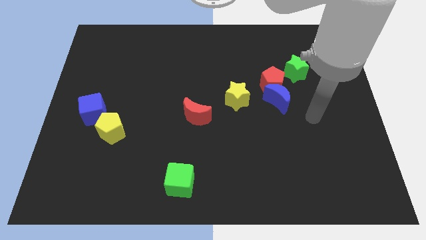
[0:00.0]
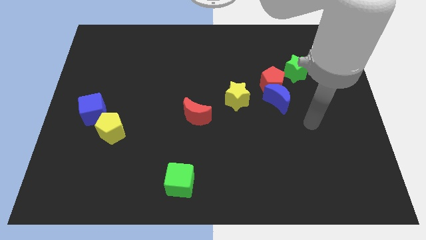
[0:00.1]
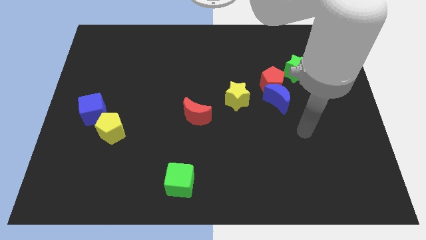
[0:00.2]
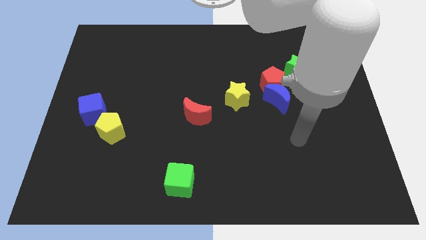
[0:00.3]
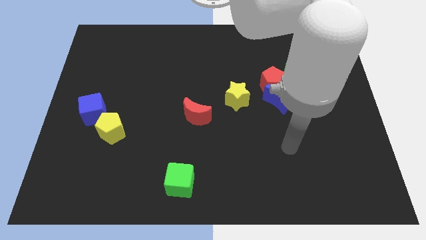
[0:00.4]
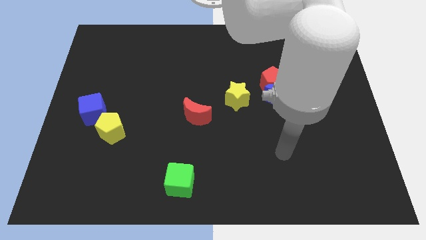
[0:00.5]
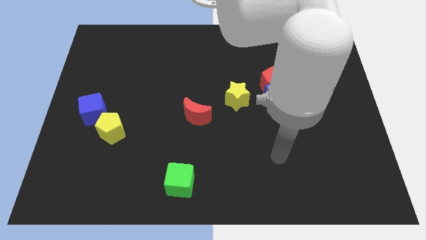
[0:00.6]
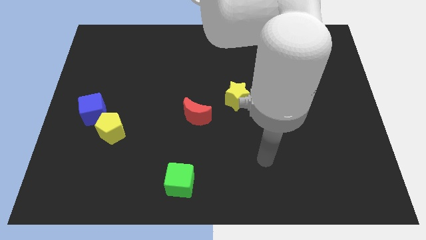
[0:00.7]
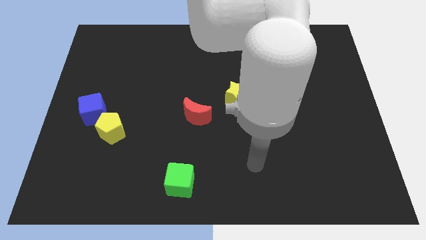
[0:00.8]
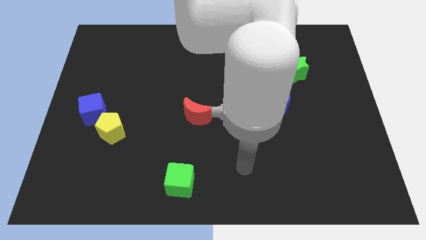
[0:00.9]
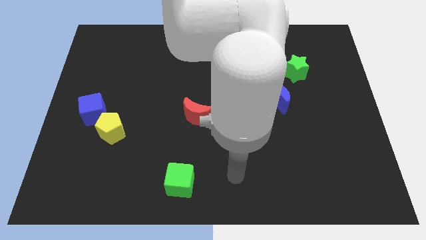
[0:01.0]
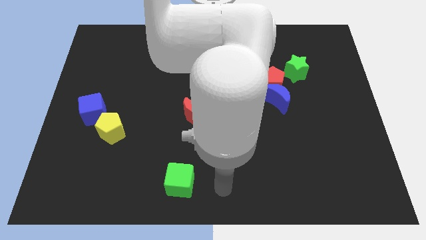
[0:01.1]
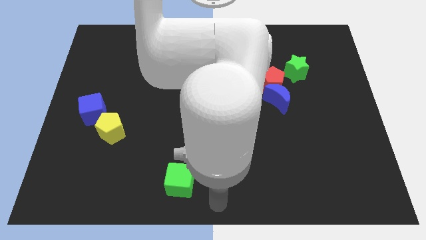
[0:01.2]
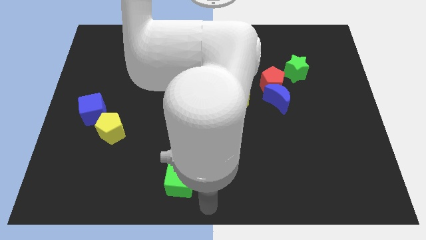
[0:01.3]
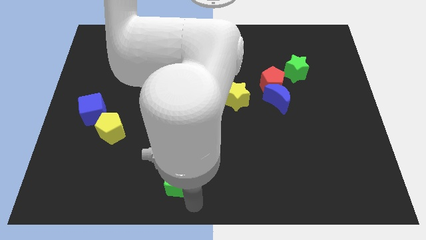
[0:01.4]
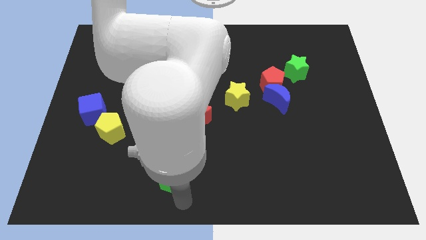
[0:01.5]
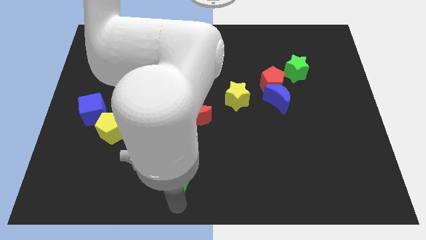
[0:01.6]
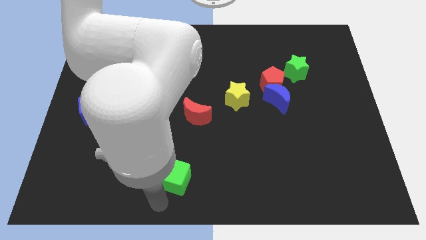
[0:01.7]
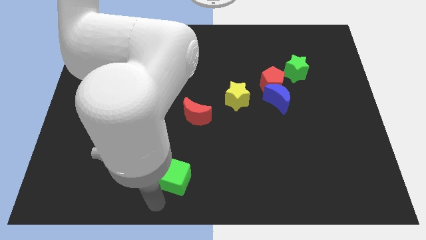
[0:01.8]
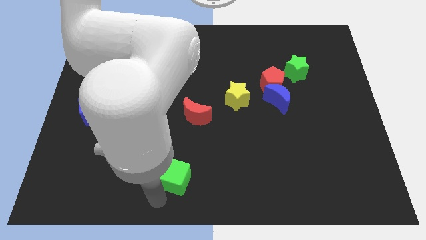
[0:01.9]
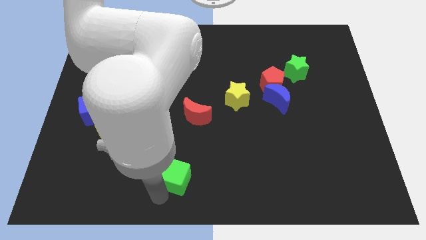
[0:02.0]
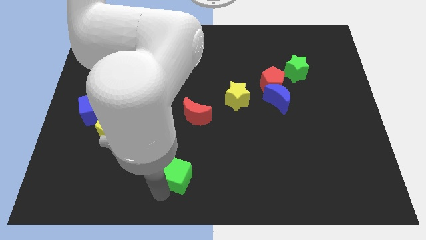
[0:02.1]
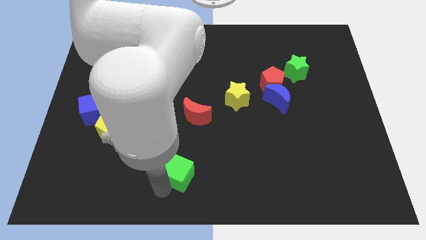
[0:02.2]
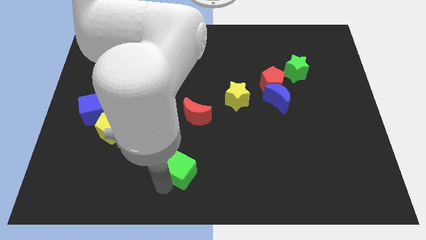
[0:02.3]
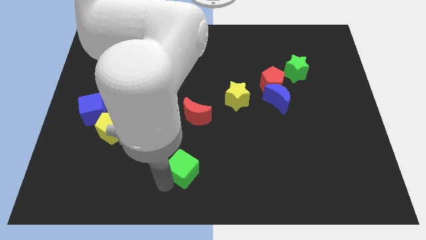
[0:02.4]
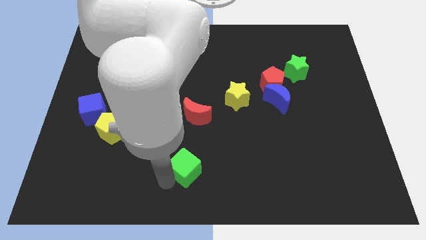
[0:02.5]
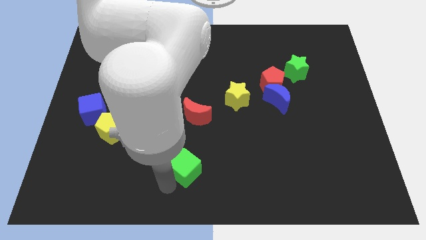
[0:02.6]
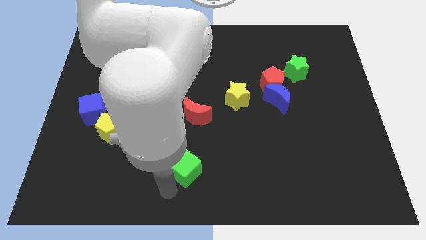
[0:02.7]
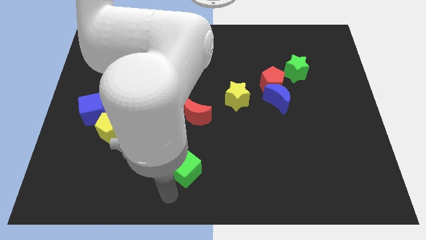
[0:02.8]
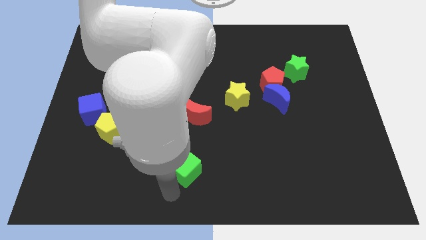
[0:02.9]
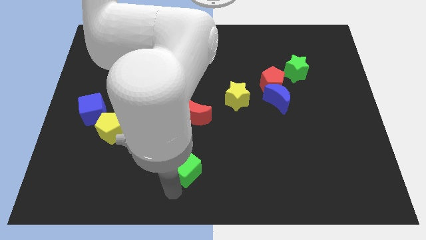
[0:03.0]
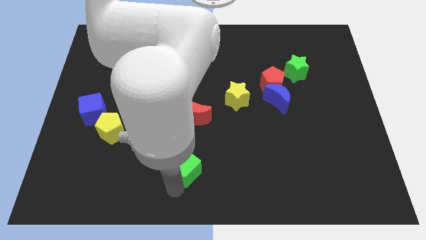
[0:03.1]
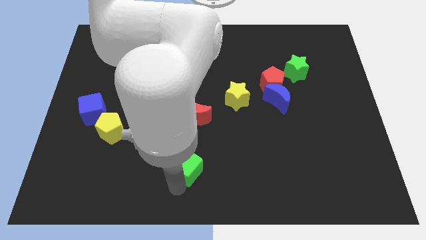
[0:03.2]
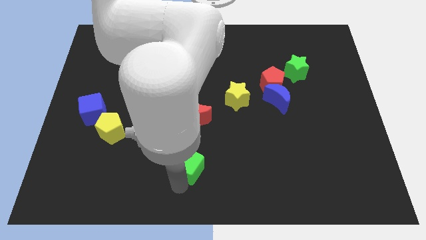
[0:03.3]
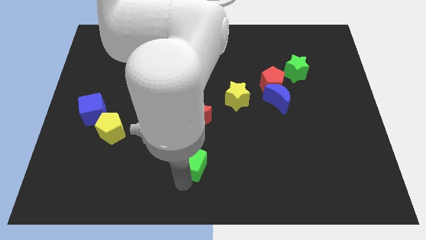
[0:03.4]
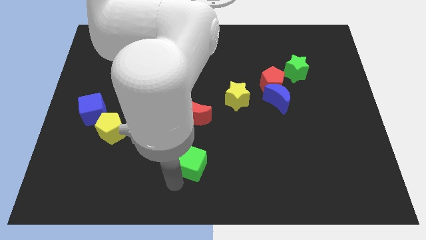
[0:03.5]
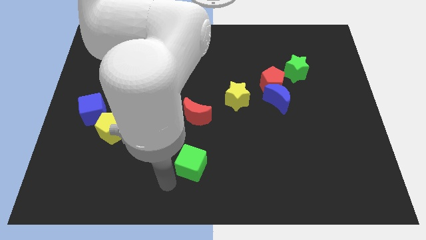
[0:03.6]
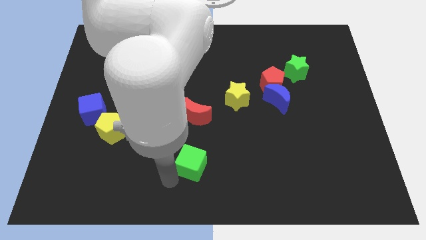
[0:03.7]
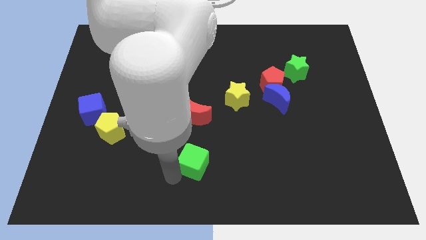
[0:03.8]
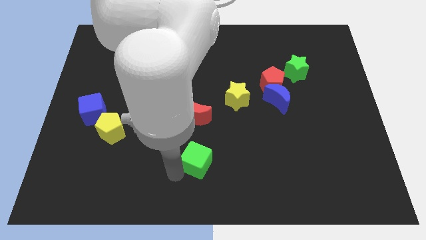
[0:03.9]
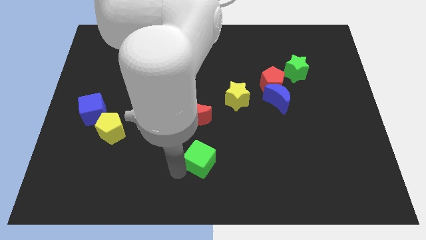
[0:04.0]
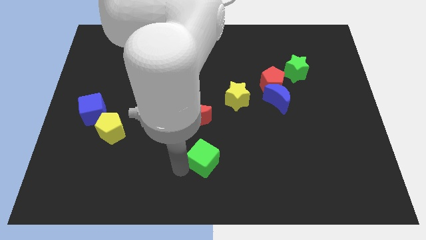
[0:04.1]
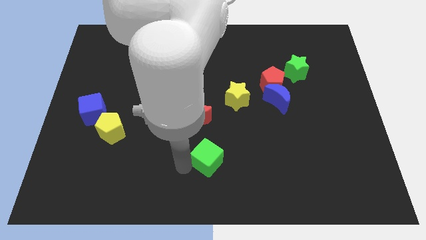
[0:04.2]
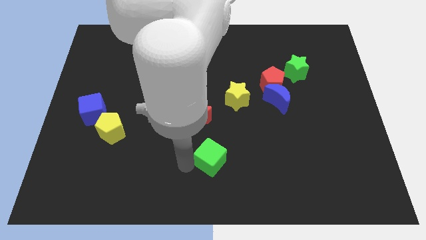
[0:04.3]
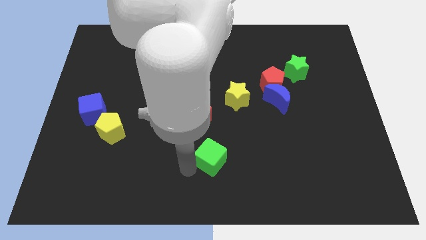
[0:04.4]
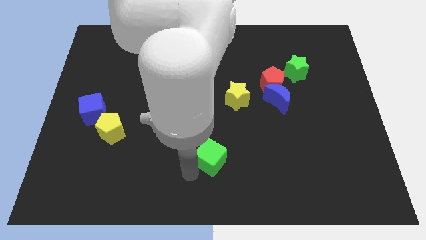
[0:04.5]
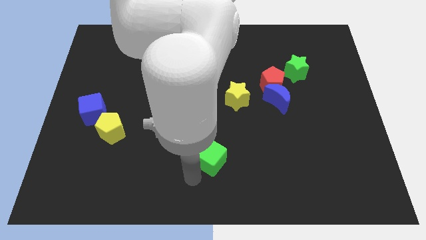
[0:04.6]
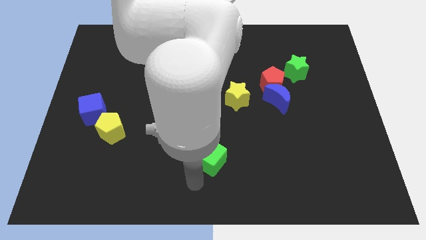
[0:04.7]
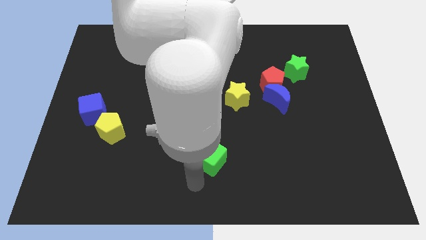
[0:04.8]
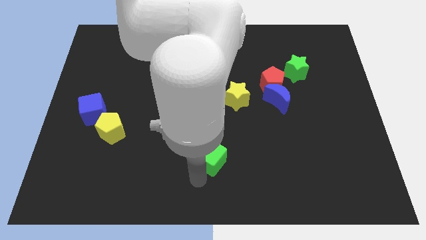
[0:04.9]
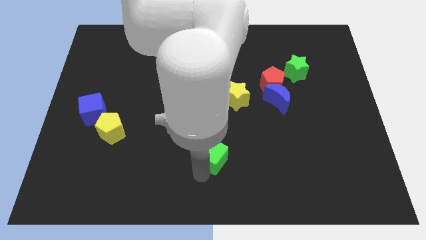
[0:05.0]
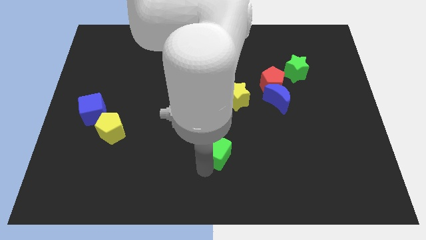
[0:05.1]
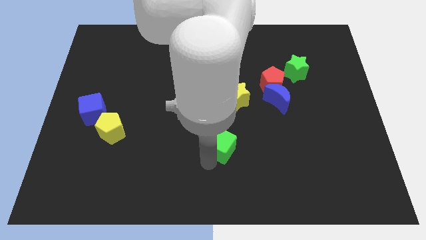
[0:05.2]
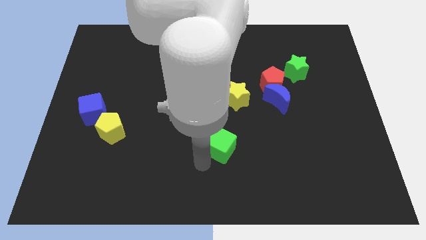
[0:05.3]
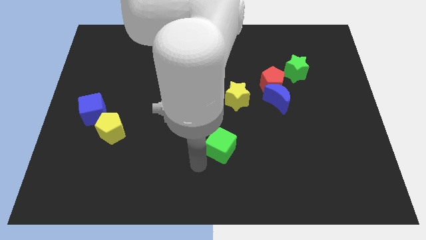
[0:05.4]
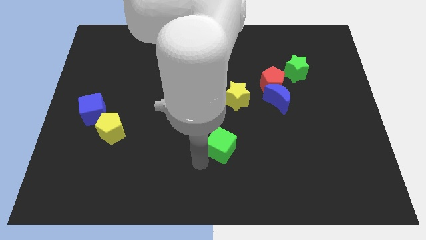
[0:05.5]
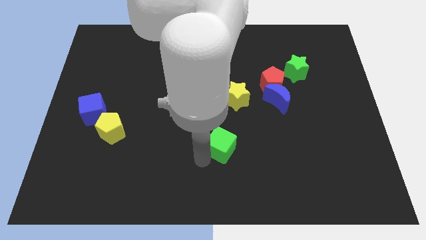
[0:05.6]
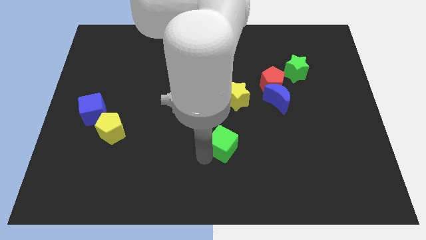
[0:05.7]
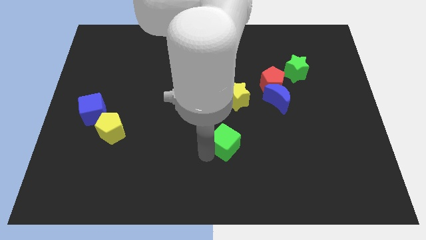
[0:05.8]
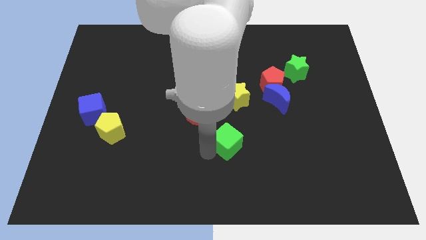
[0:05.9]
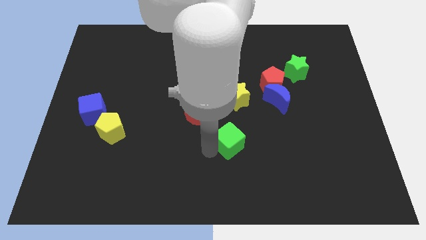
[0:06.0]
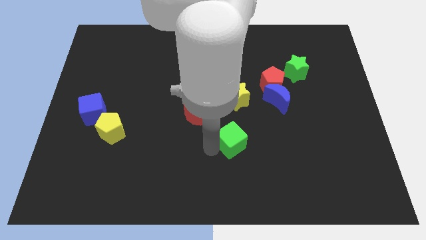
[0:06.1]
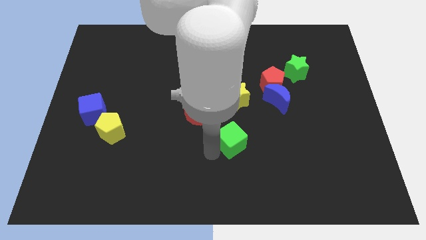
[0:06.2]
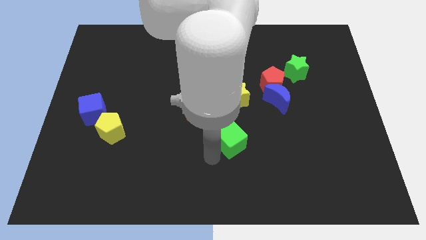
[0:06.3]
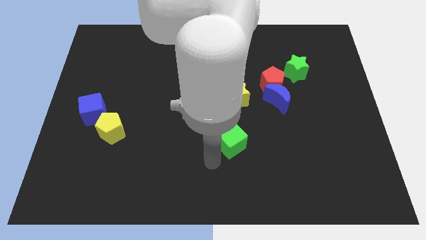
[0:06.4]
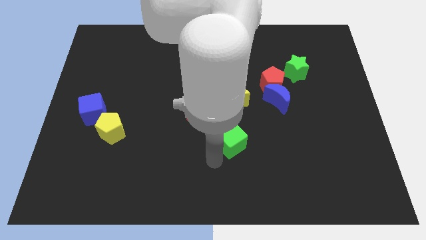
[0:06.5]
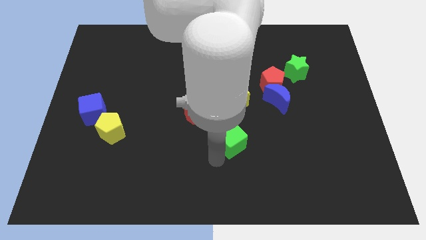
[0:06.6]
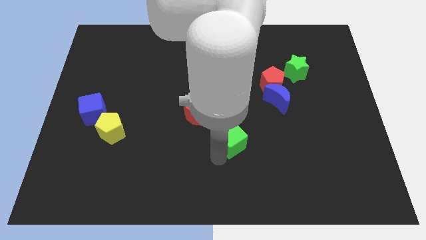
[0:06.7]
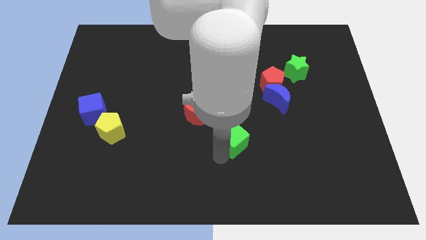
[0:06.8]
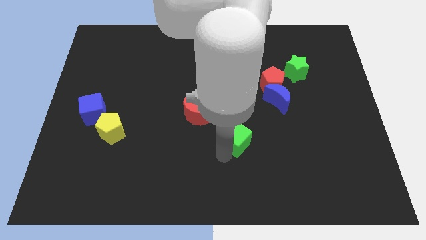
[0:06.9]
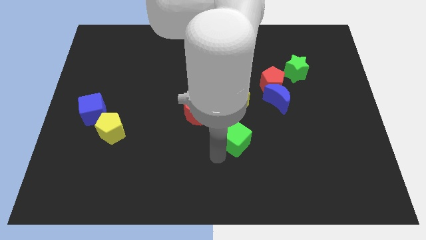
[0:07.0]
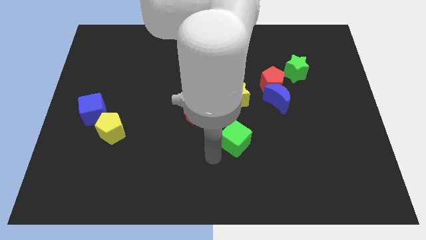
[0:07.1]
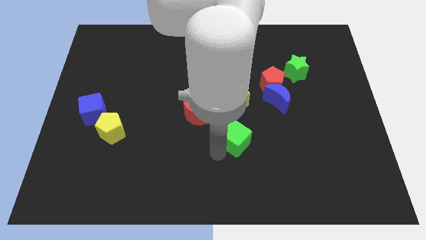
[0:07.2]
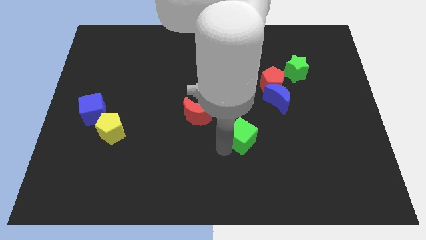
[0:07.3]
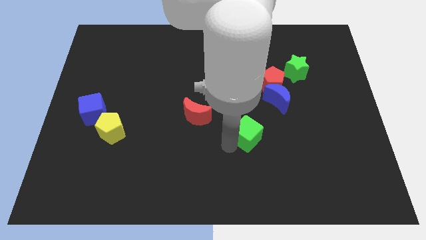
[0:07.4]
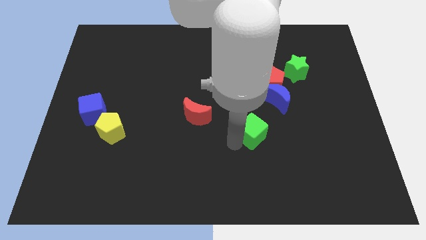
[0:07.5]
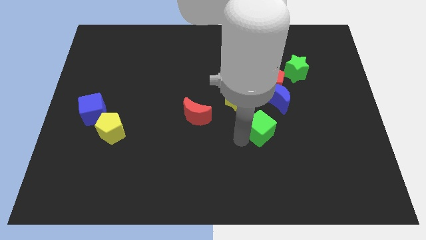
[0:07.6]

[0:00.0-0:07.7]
slide the green cube to the bottom of the red pentagon

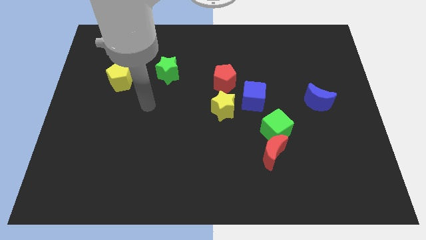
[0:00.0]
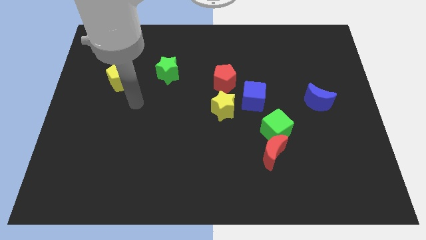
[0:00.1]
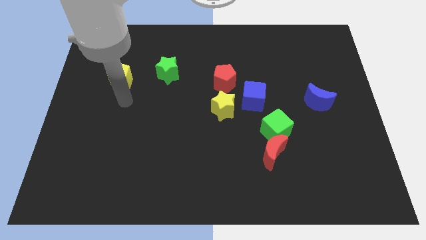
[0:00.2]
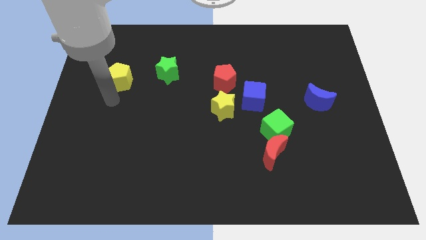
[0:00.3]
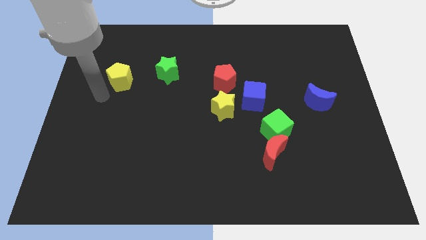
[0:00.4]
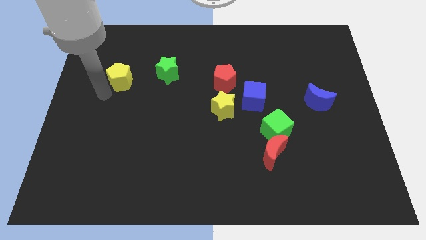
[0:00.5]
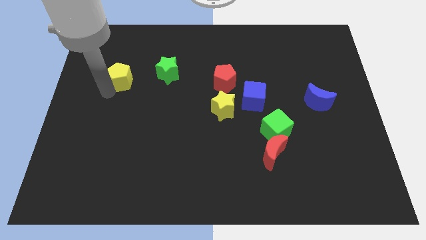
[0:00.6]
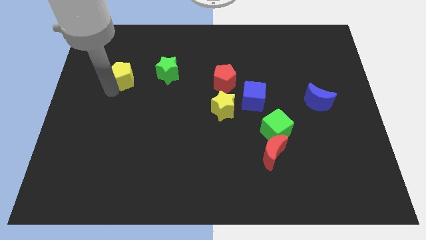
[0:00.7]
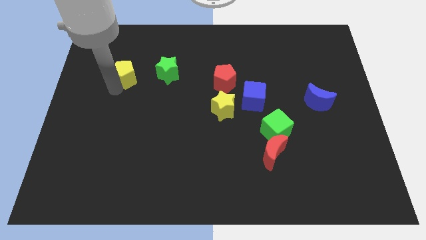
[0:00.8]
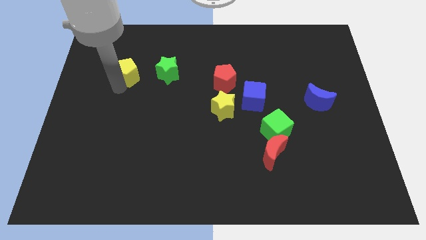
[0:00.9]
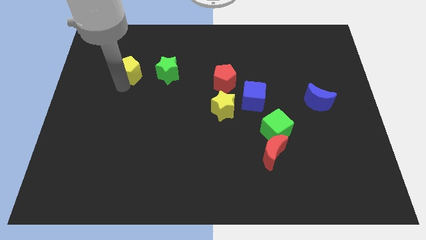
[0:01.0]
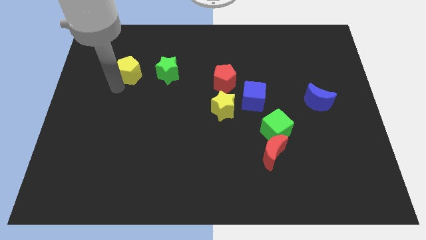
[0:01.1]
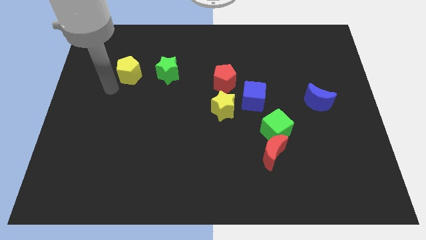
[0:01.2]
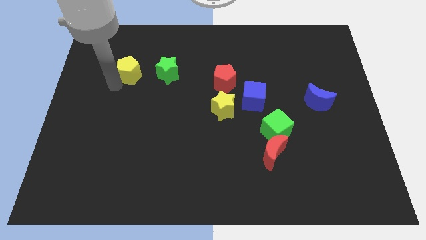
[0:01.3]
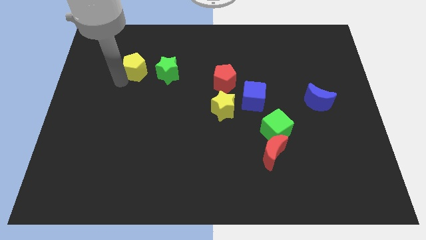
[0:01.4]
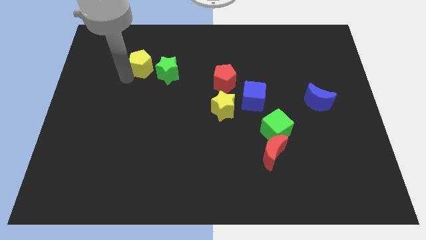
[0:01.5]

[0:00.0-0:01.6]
put the yellow pentagon diagonally up and to the left of the green star
